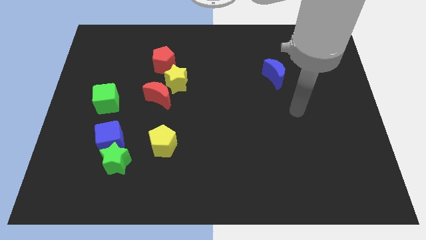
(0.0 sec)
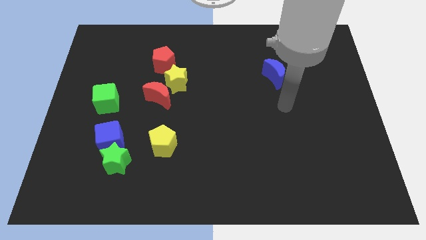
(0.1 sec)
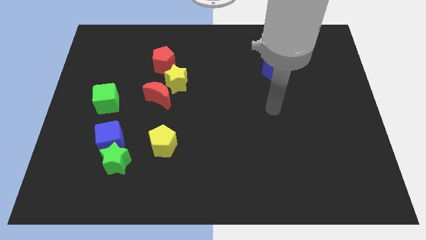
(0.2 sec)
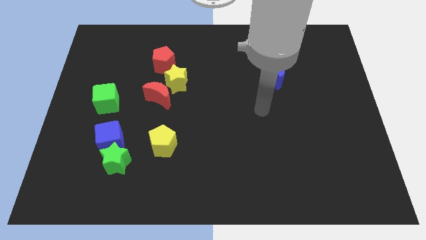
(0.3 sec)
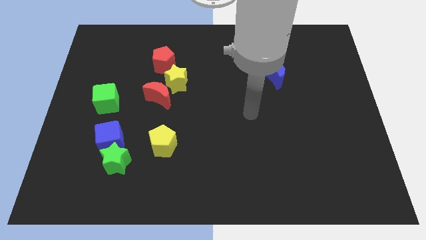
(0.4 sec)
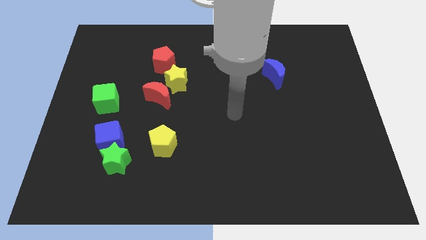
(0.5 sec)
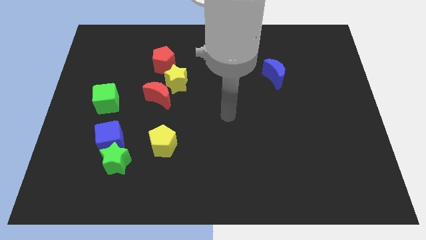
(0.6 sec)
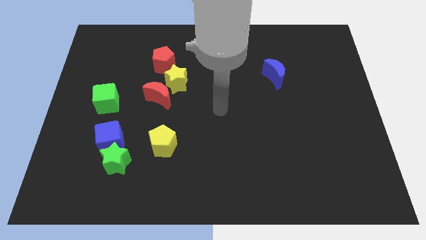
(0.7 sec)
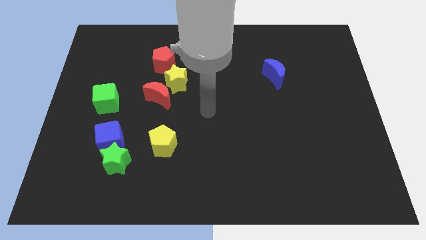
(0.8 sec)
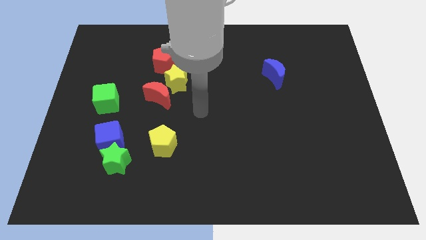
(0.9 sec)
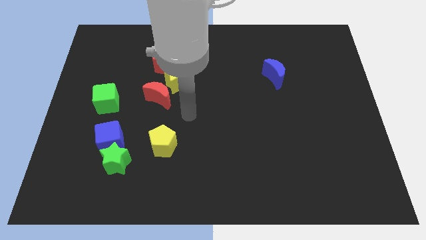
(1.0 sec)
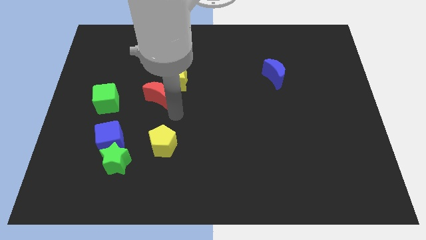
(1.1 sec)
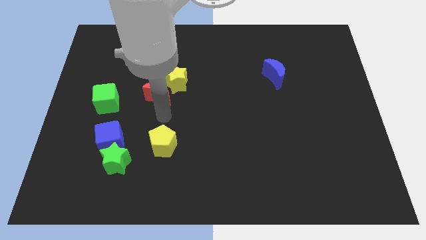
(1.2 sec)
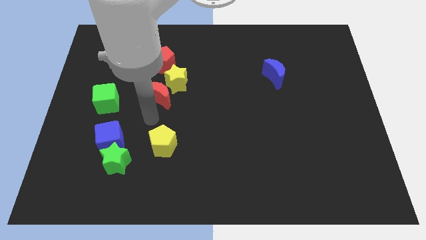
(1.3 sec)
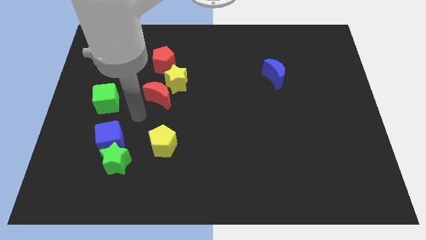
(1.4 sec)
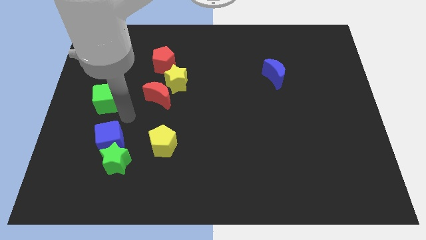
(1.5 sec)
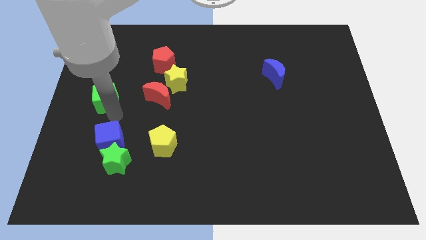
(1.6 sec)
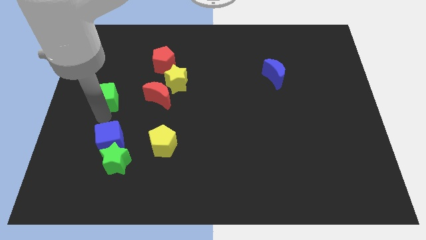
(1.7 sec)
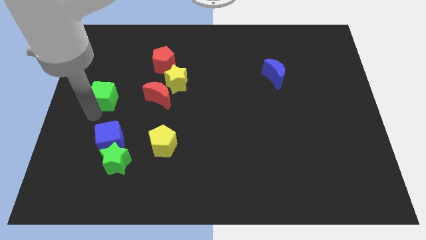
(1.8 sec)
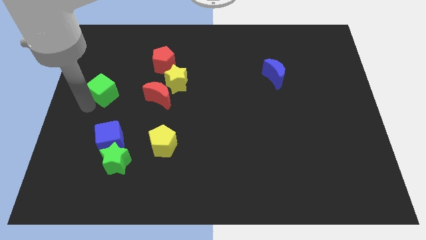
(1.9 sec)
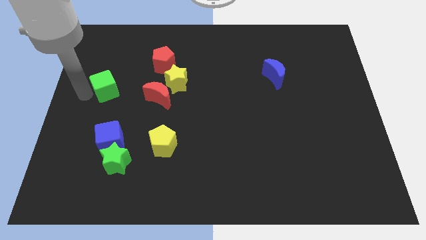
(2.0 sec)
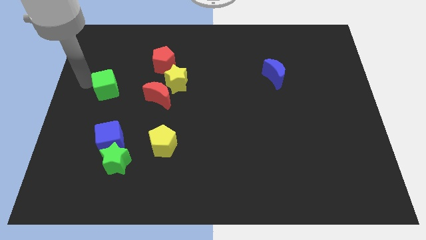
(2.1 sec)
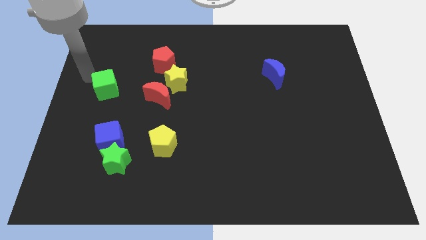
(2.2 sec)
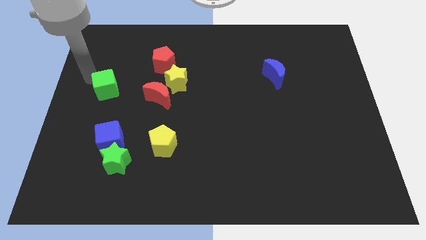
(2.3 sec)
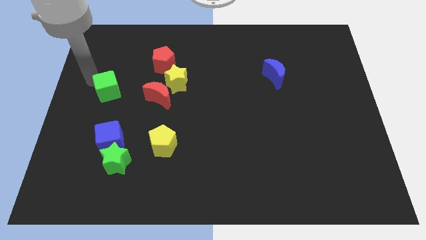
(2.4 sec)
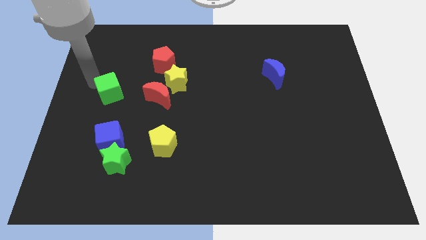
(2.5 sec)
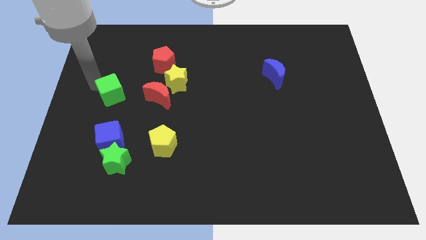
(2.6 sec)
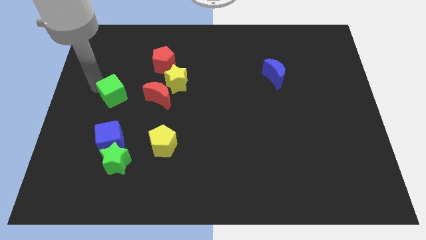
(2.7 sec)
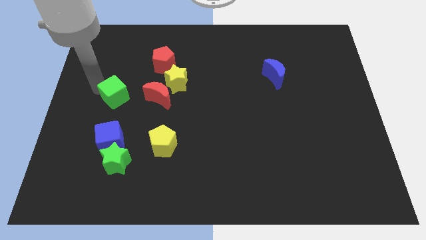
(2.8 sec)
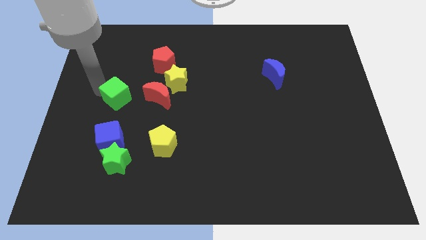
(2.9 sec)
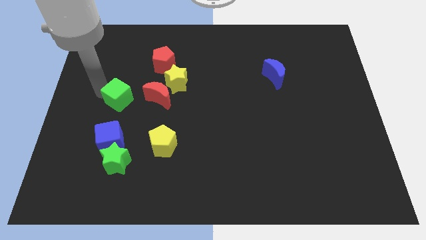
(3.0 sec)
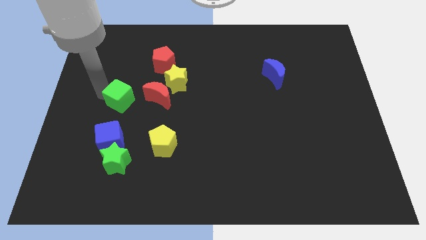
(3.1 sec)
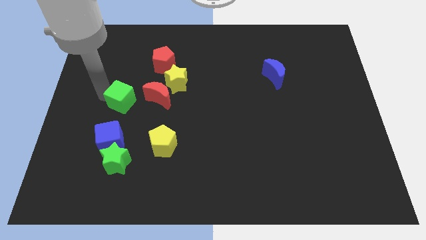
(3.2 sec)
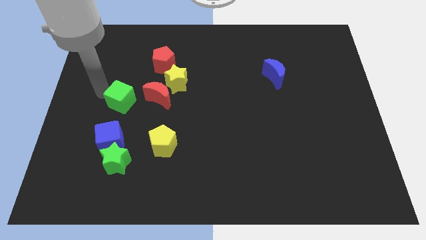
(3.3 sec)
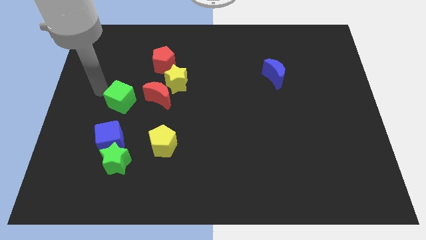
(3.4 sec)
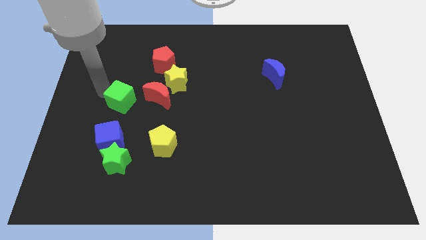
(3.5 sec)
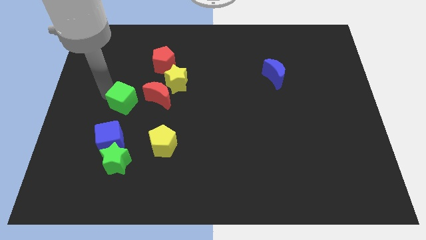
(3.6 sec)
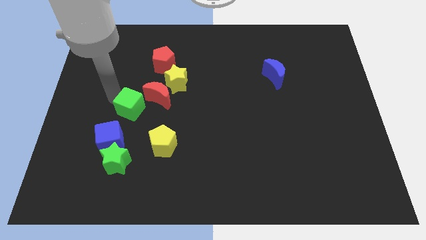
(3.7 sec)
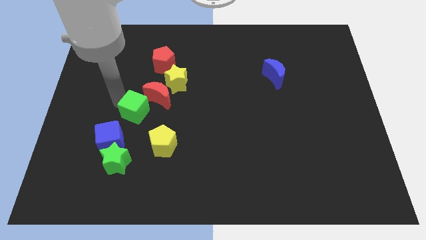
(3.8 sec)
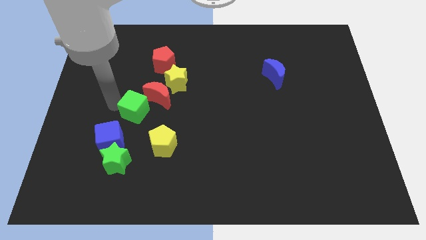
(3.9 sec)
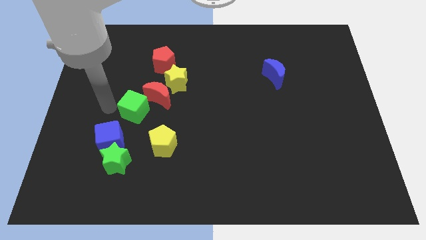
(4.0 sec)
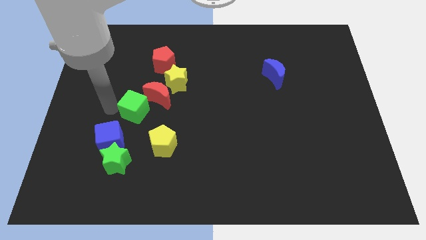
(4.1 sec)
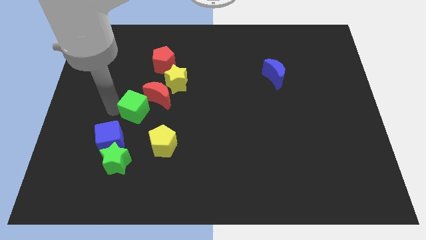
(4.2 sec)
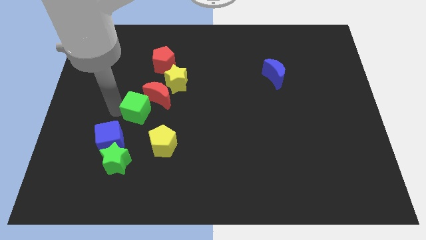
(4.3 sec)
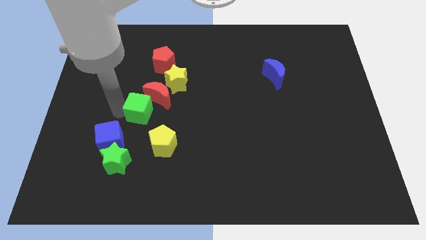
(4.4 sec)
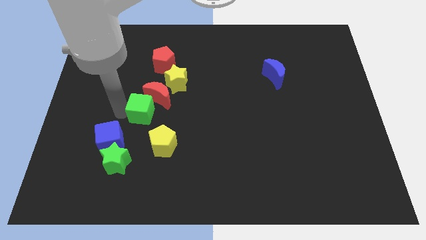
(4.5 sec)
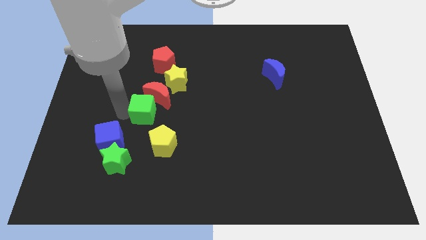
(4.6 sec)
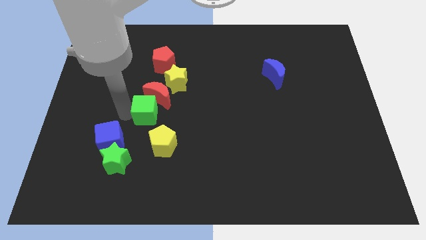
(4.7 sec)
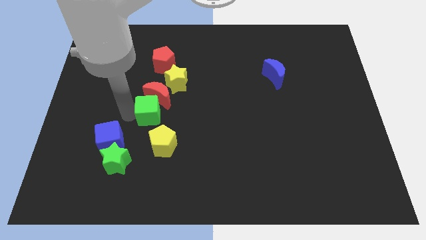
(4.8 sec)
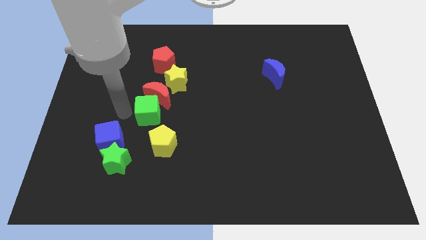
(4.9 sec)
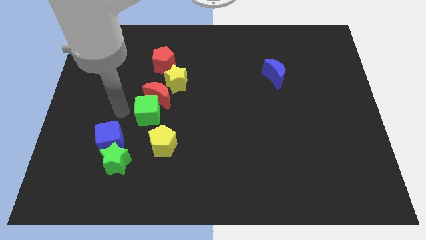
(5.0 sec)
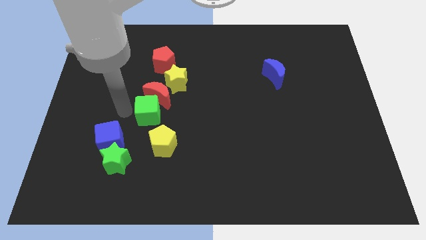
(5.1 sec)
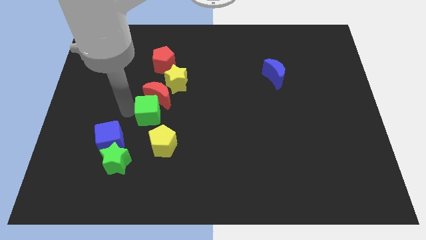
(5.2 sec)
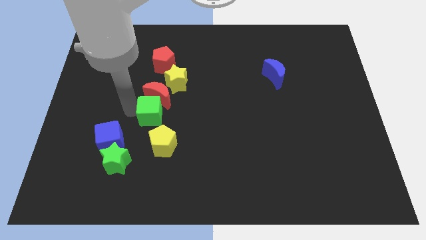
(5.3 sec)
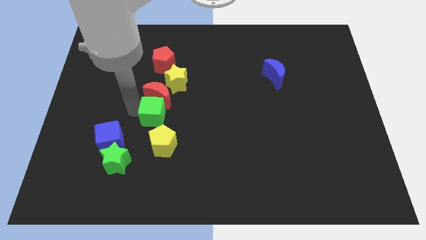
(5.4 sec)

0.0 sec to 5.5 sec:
move the green cube to the bottom of the yellow star

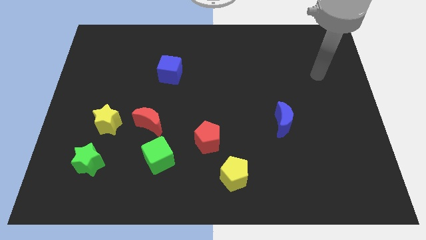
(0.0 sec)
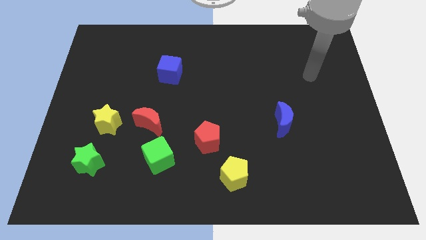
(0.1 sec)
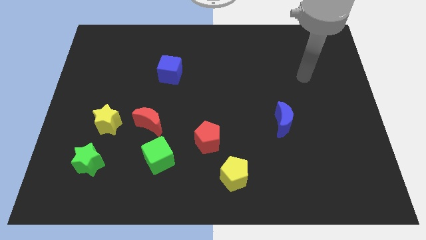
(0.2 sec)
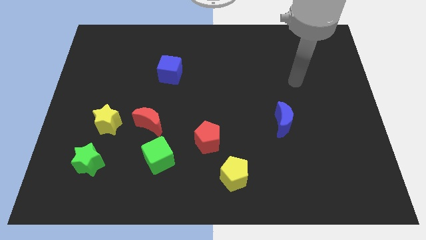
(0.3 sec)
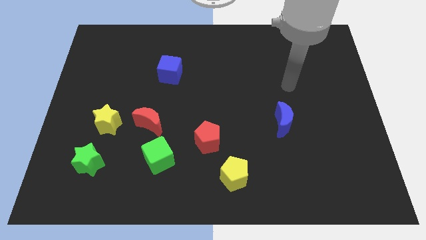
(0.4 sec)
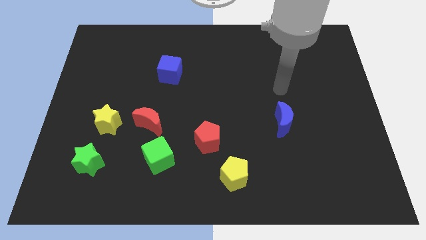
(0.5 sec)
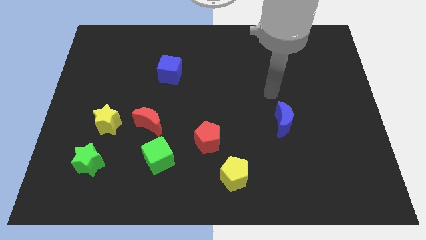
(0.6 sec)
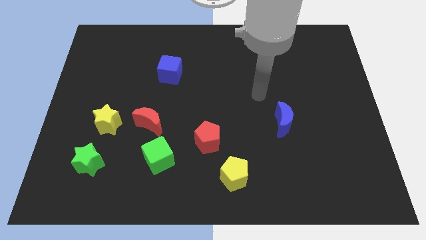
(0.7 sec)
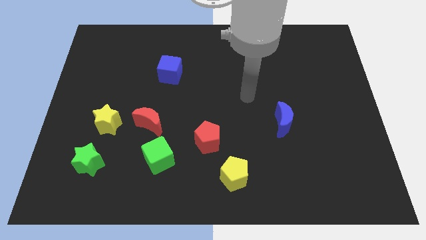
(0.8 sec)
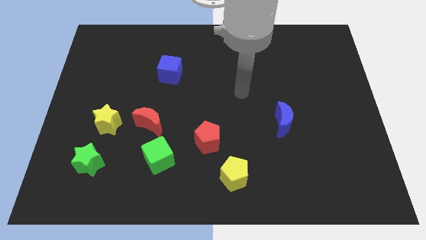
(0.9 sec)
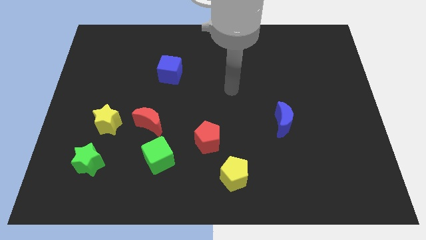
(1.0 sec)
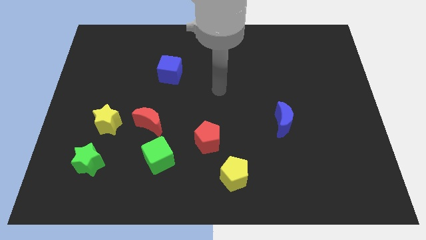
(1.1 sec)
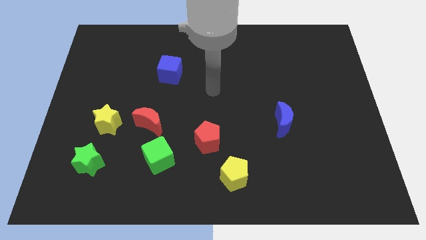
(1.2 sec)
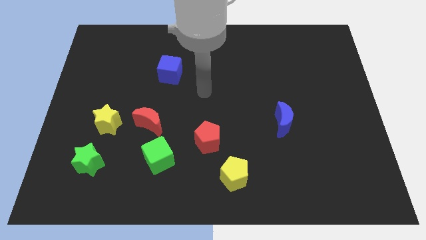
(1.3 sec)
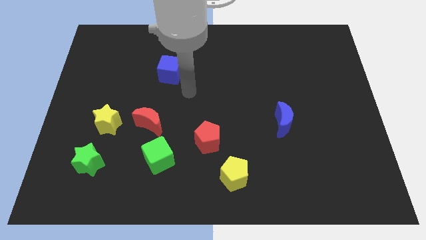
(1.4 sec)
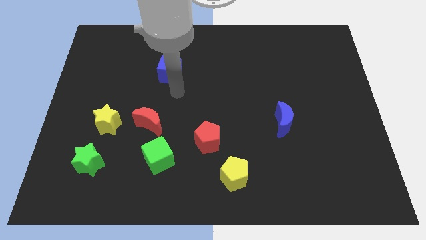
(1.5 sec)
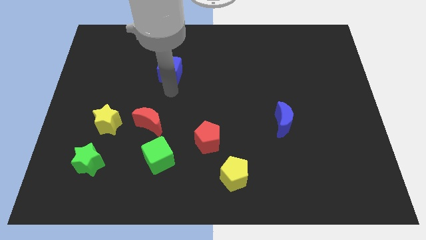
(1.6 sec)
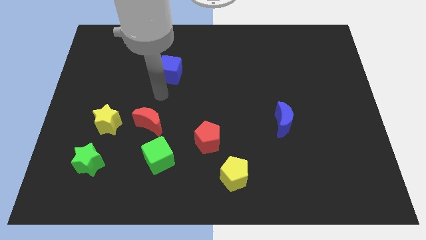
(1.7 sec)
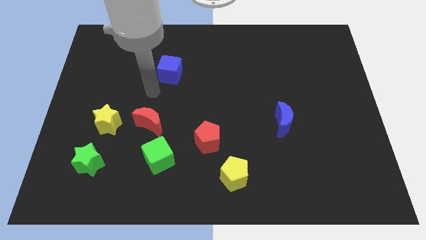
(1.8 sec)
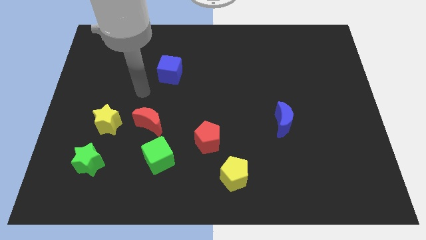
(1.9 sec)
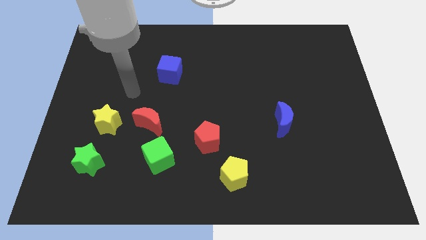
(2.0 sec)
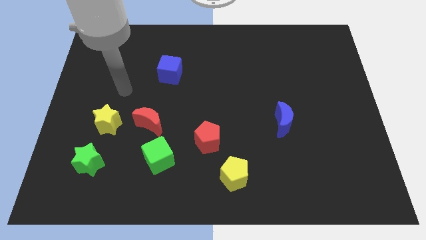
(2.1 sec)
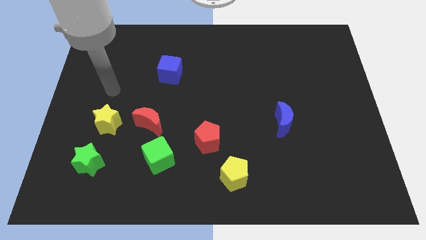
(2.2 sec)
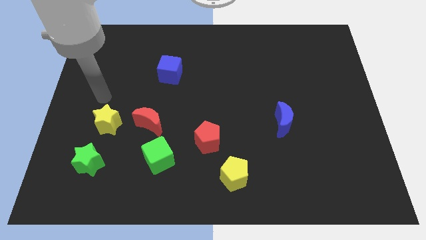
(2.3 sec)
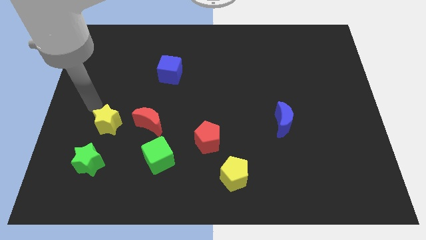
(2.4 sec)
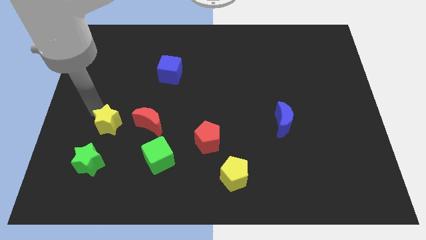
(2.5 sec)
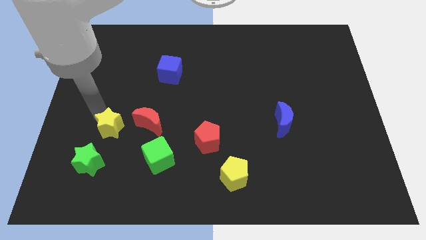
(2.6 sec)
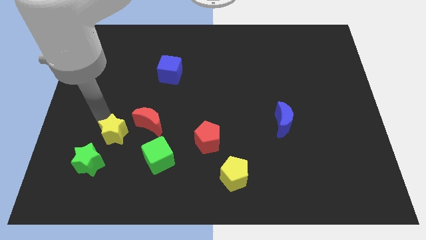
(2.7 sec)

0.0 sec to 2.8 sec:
put the yellow star diagonally down and to the left of the red moon
